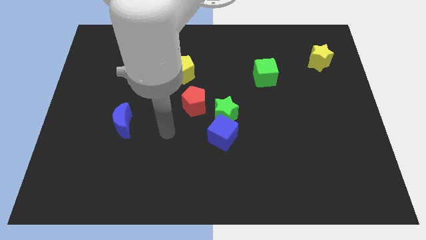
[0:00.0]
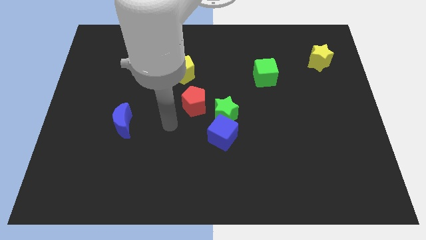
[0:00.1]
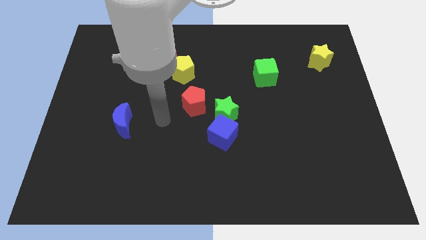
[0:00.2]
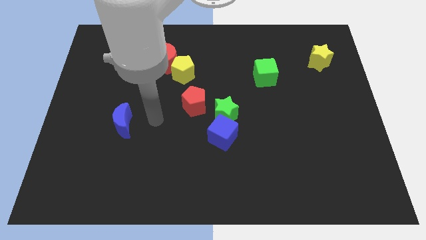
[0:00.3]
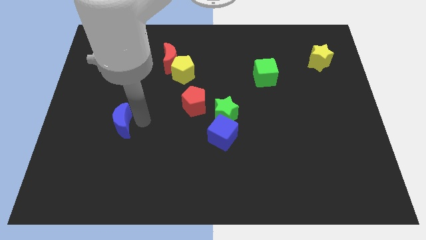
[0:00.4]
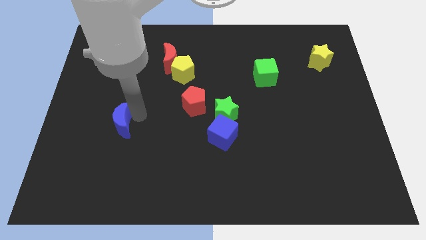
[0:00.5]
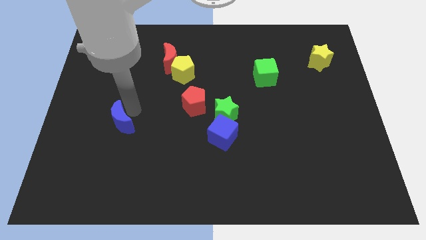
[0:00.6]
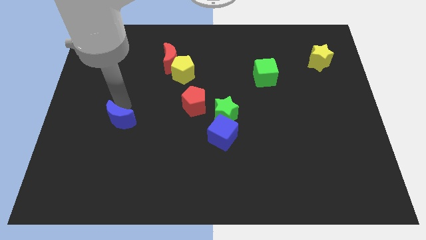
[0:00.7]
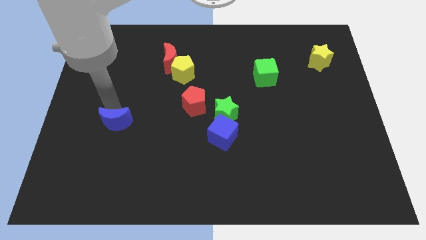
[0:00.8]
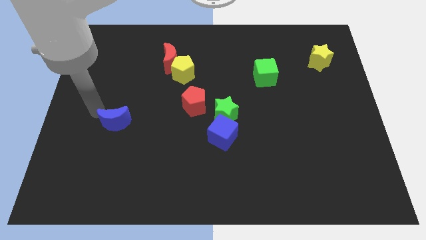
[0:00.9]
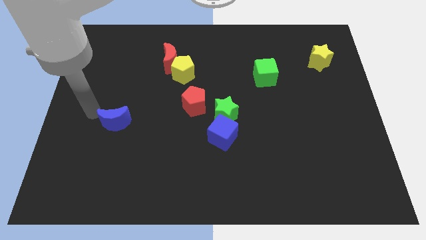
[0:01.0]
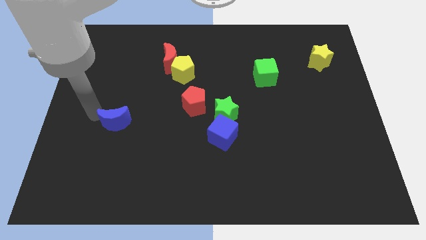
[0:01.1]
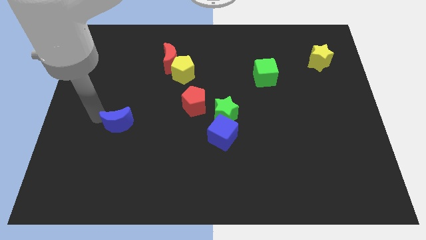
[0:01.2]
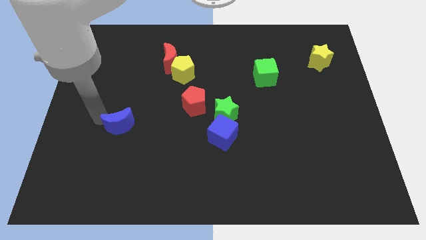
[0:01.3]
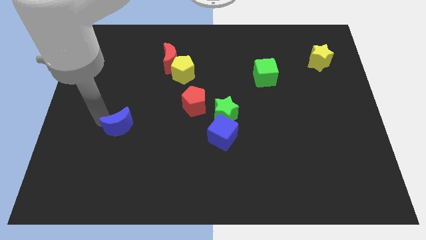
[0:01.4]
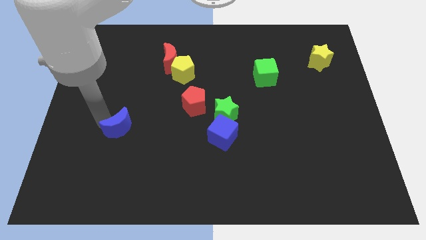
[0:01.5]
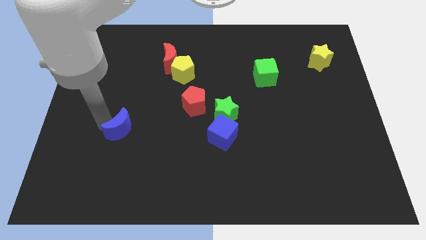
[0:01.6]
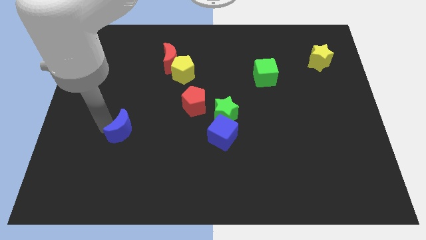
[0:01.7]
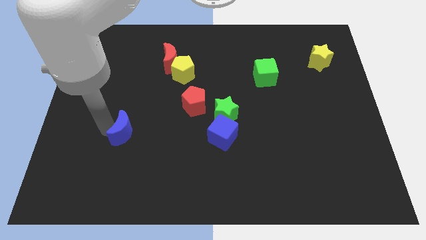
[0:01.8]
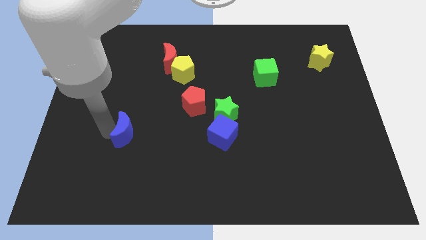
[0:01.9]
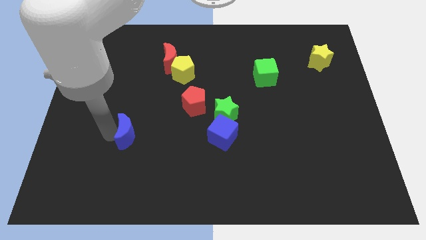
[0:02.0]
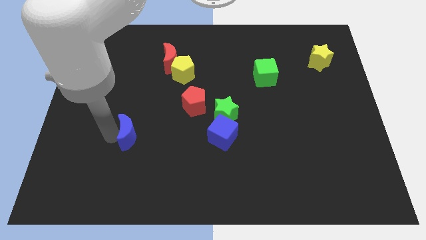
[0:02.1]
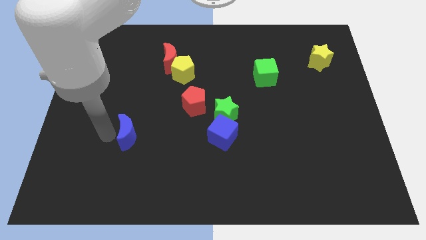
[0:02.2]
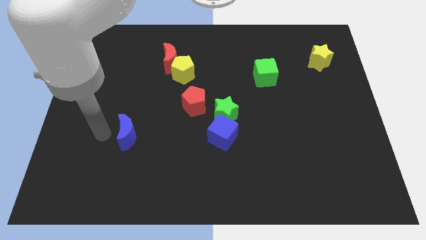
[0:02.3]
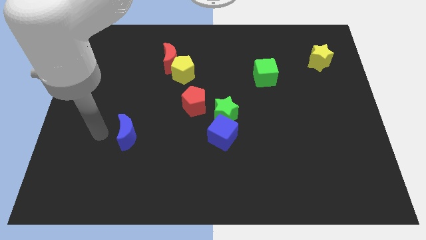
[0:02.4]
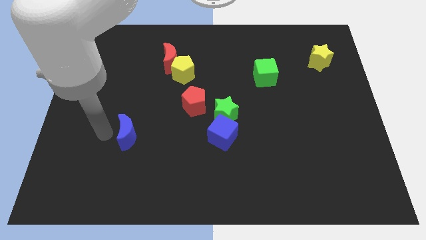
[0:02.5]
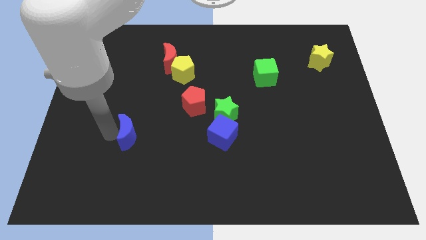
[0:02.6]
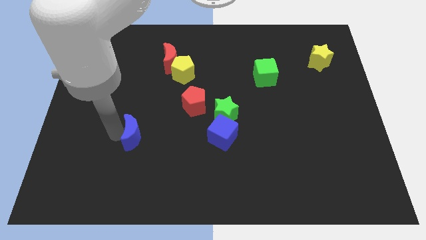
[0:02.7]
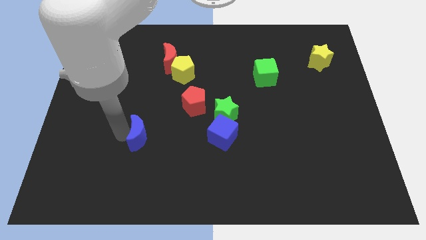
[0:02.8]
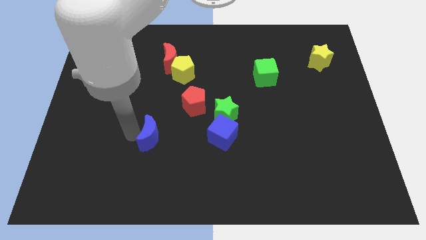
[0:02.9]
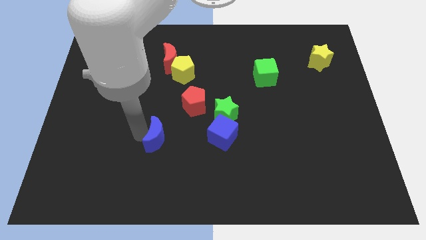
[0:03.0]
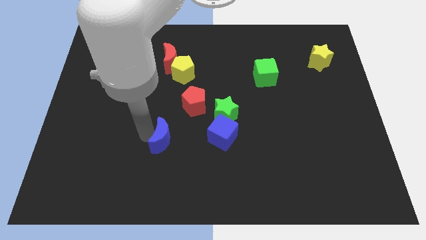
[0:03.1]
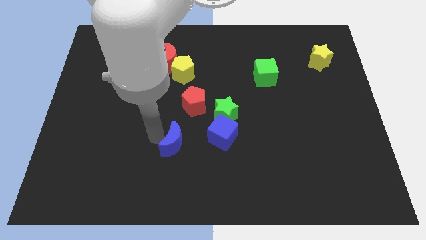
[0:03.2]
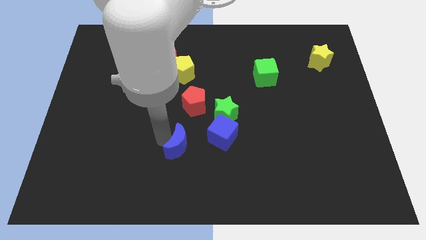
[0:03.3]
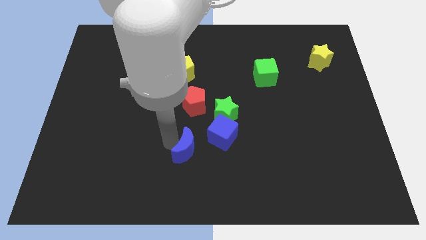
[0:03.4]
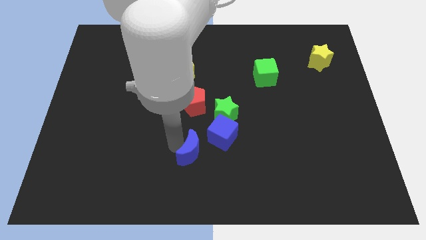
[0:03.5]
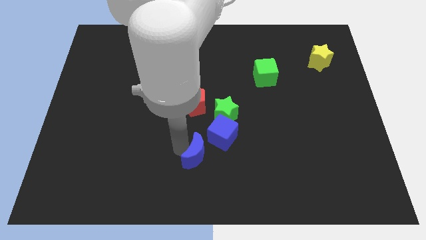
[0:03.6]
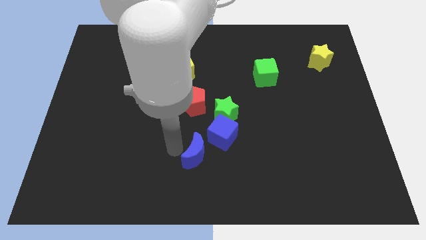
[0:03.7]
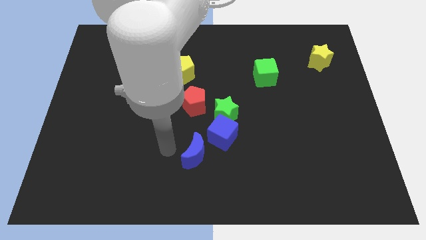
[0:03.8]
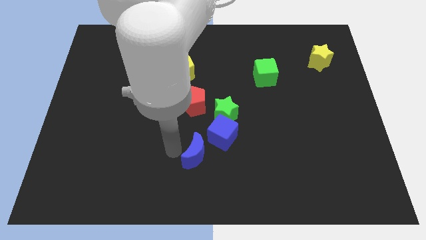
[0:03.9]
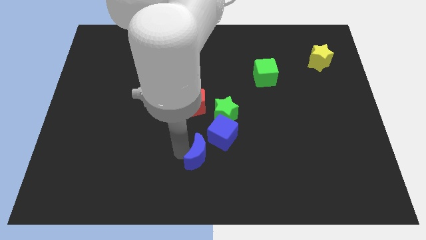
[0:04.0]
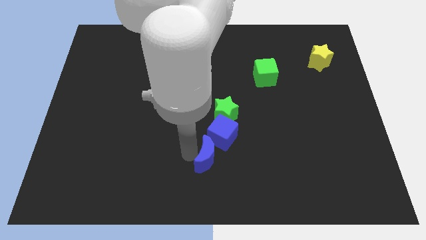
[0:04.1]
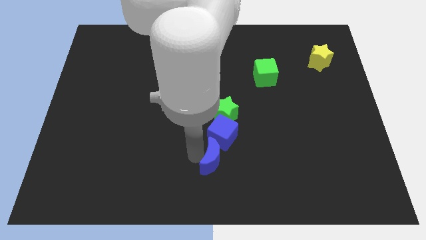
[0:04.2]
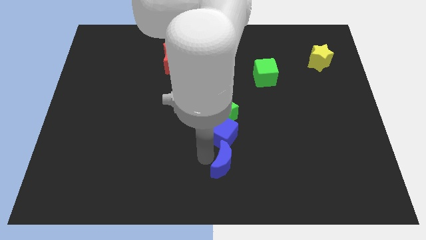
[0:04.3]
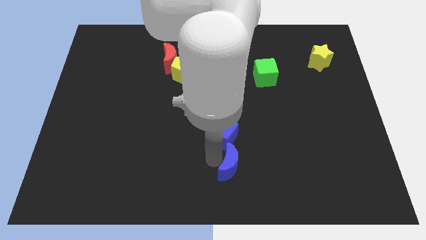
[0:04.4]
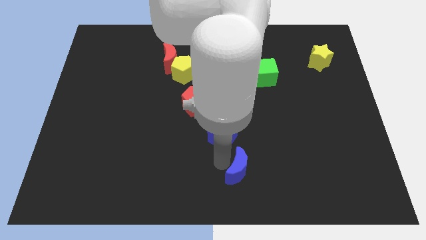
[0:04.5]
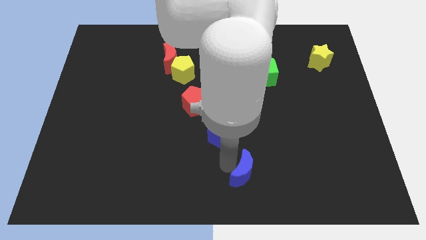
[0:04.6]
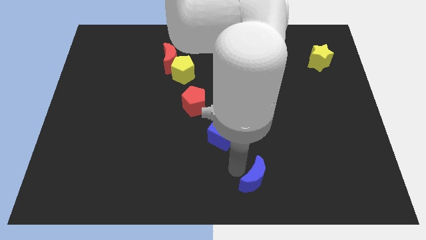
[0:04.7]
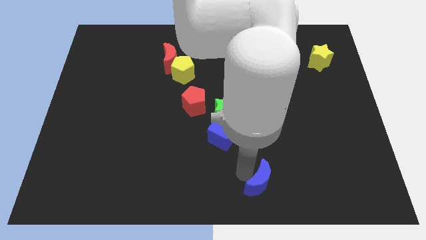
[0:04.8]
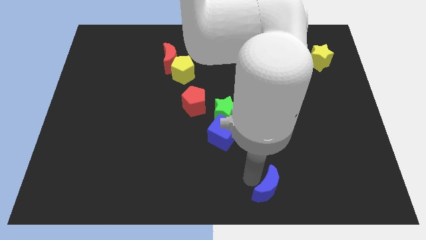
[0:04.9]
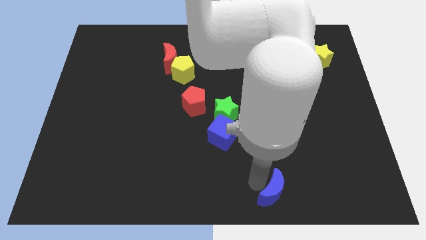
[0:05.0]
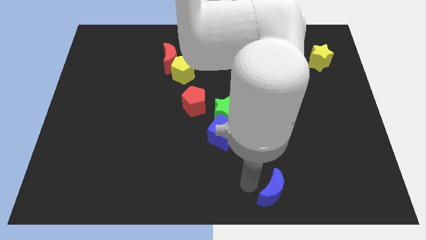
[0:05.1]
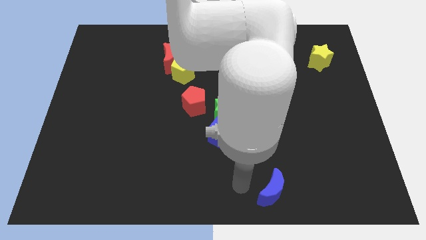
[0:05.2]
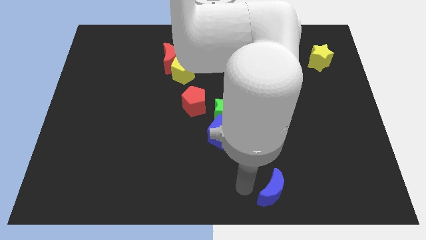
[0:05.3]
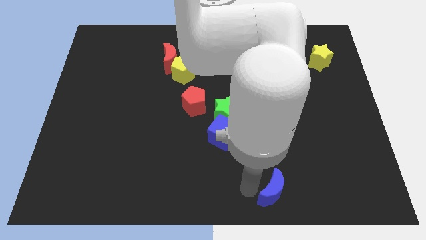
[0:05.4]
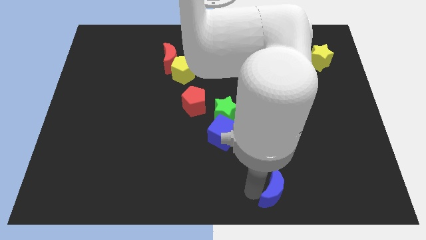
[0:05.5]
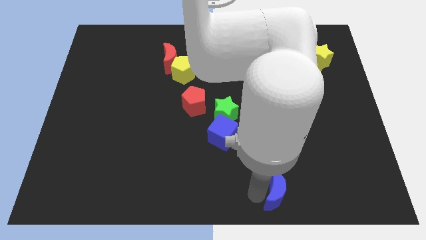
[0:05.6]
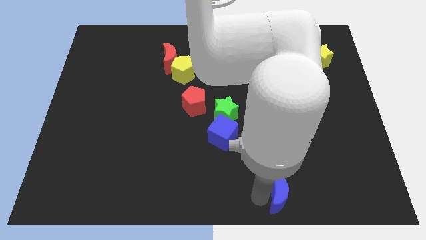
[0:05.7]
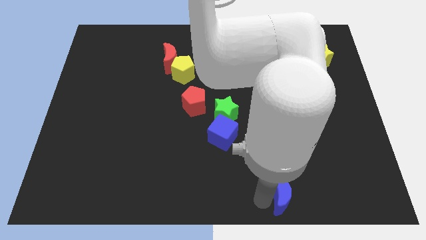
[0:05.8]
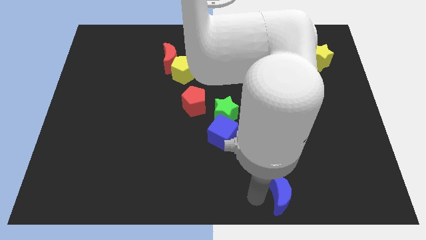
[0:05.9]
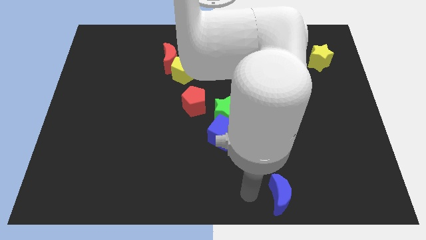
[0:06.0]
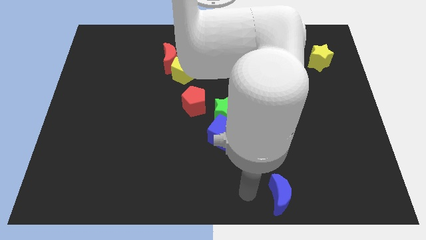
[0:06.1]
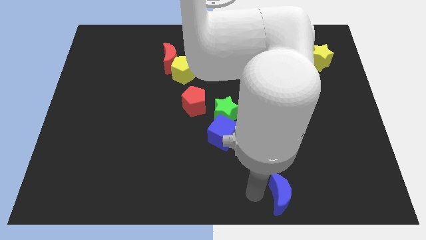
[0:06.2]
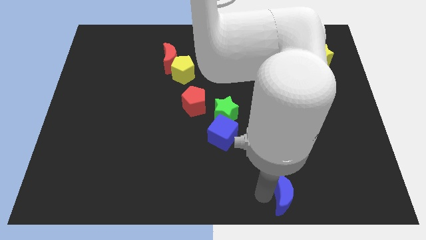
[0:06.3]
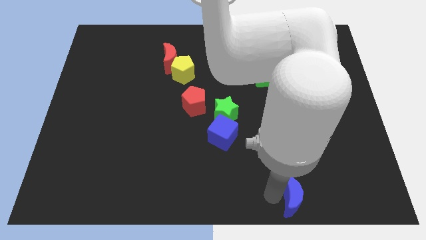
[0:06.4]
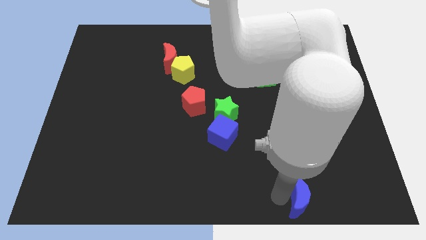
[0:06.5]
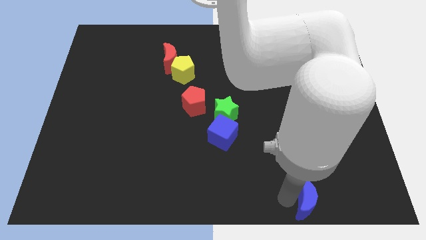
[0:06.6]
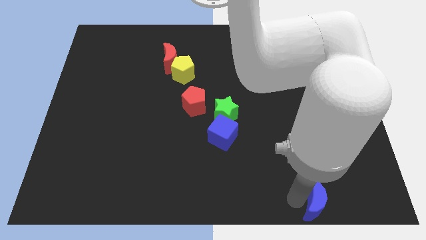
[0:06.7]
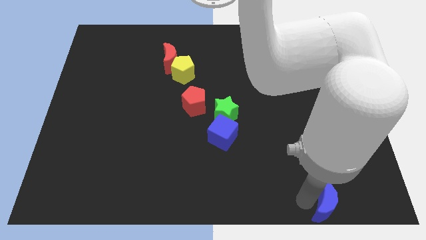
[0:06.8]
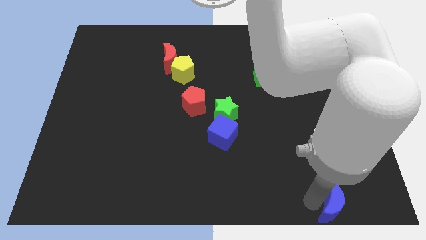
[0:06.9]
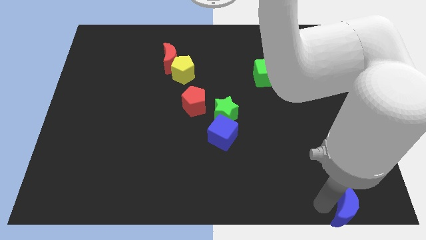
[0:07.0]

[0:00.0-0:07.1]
put the blue moon to the bottom right
